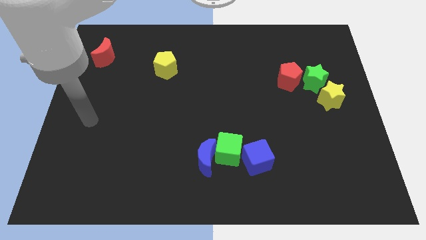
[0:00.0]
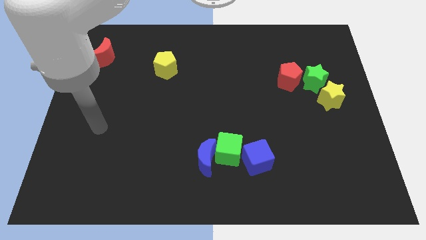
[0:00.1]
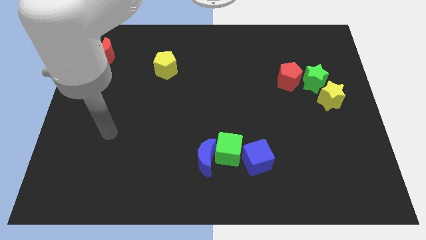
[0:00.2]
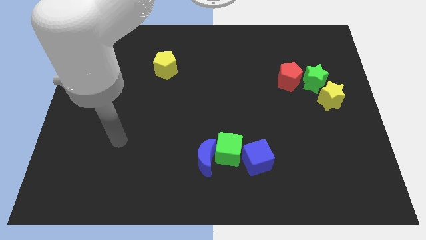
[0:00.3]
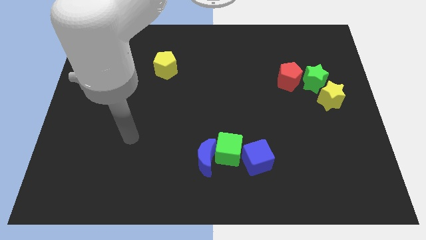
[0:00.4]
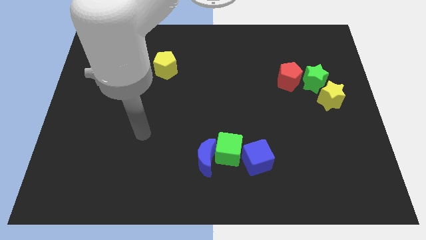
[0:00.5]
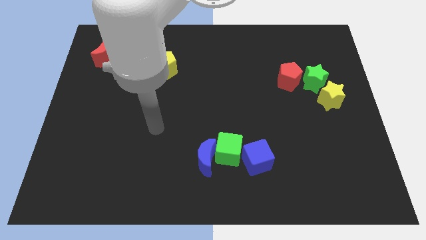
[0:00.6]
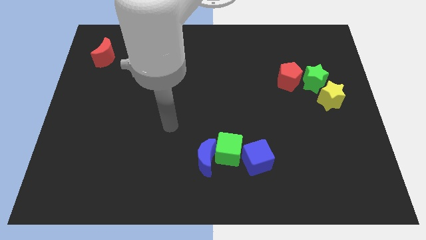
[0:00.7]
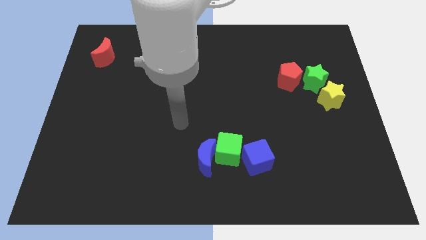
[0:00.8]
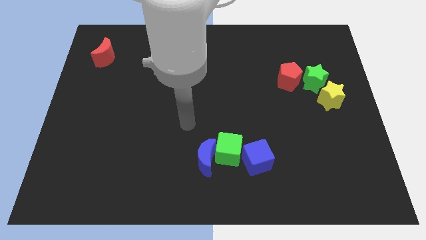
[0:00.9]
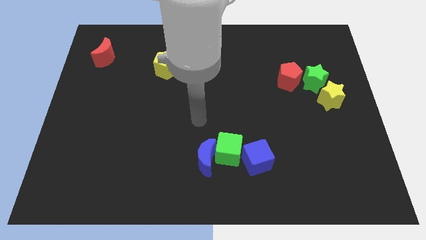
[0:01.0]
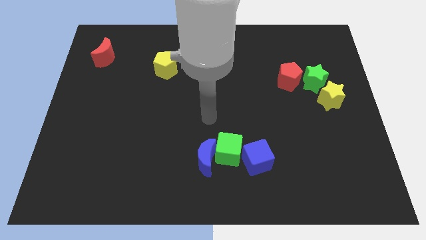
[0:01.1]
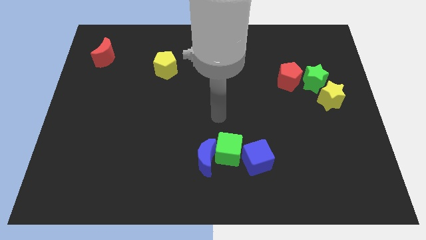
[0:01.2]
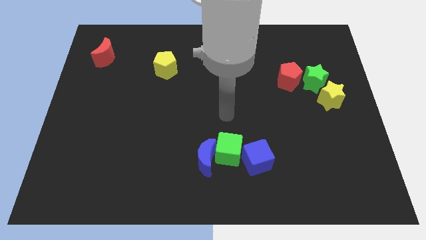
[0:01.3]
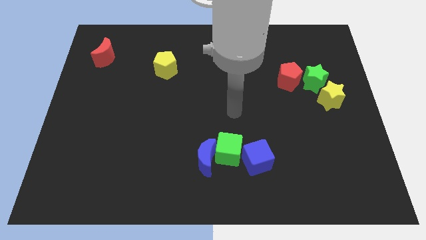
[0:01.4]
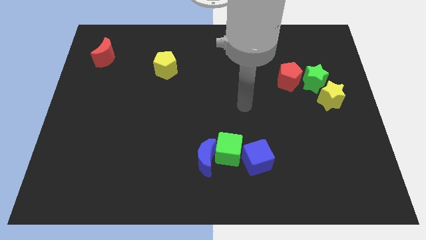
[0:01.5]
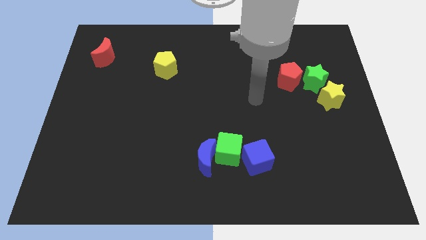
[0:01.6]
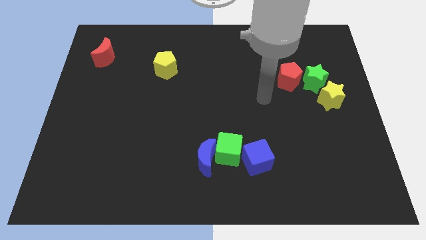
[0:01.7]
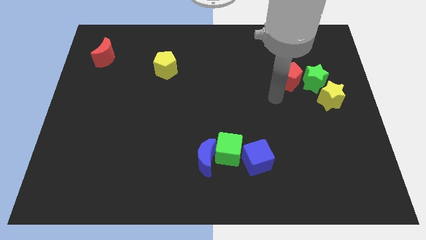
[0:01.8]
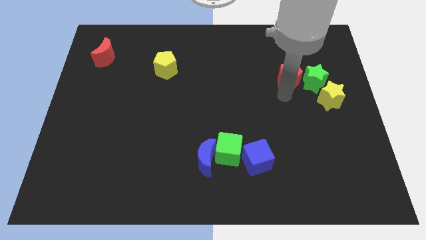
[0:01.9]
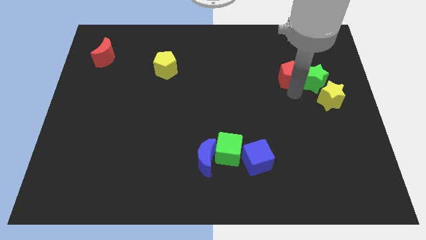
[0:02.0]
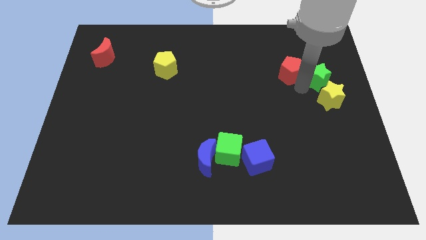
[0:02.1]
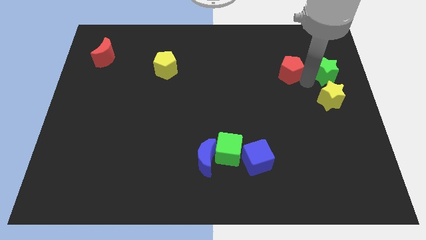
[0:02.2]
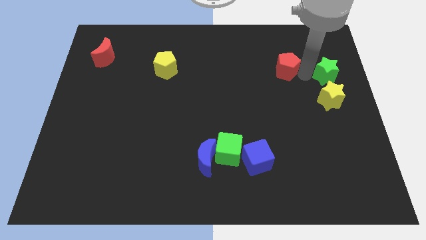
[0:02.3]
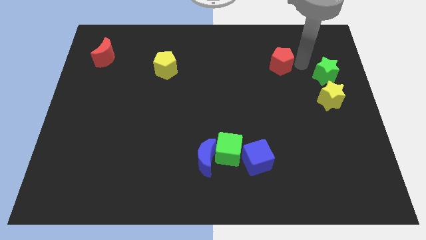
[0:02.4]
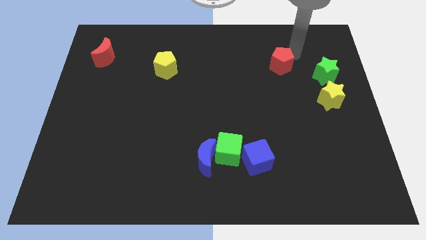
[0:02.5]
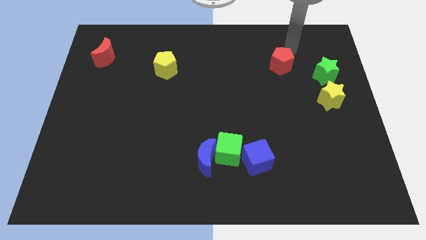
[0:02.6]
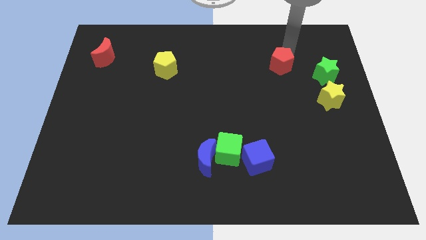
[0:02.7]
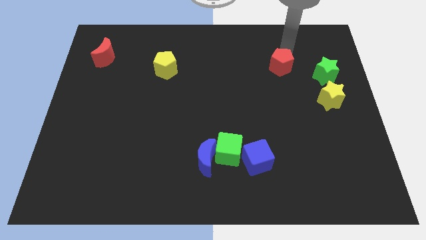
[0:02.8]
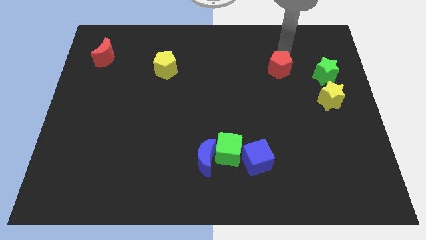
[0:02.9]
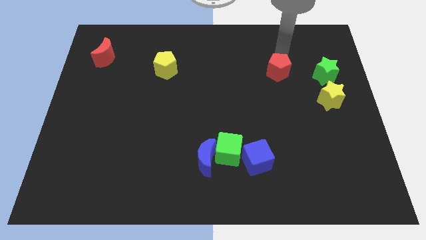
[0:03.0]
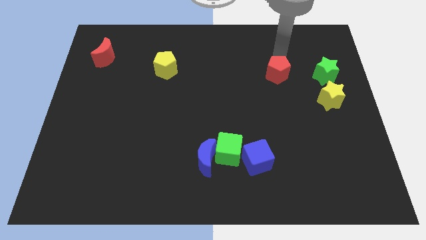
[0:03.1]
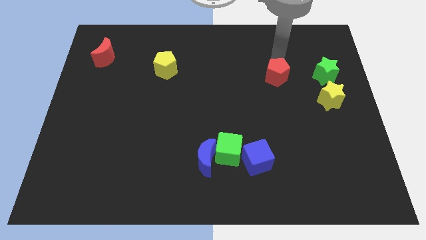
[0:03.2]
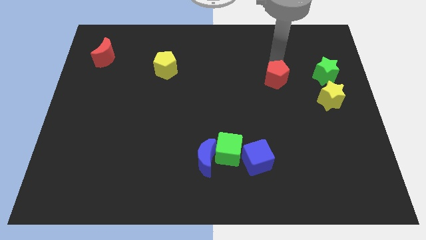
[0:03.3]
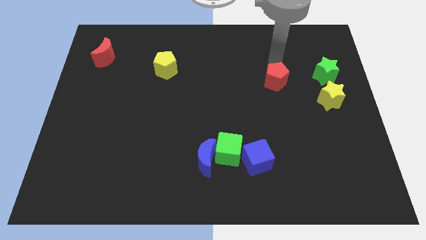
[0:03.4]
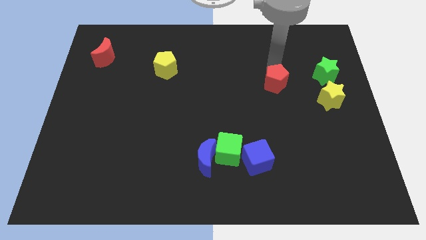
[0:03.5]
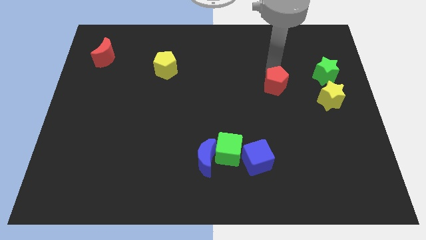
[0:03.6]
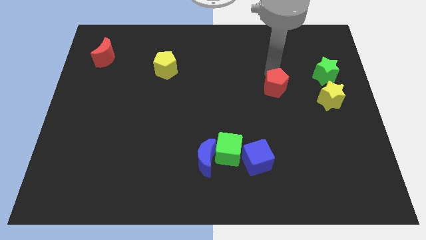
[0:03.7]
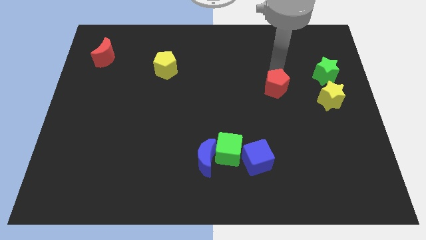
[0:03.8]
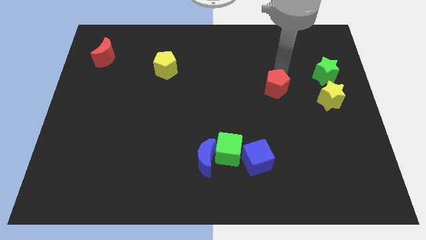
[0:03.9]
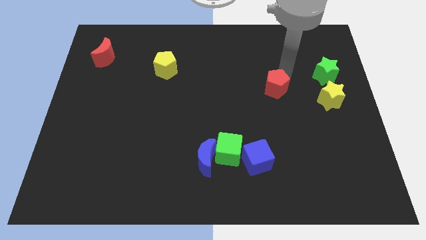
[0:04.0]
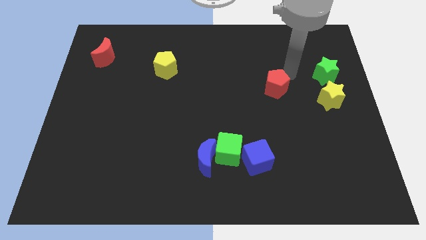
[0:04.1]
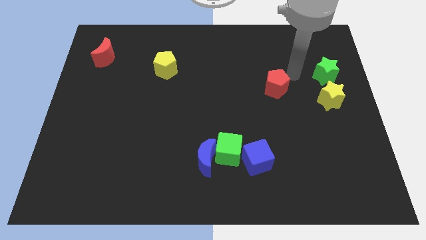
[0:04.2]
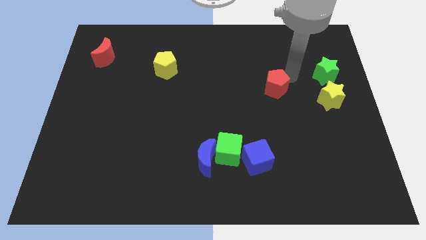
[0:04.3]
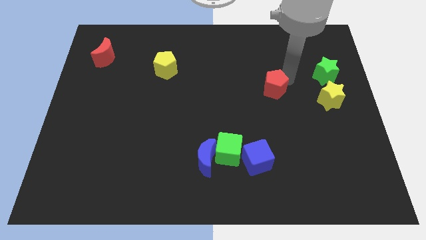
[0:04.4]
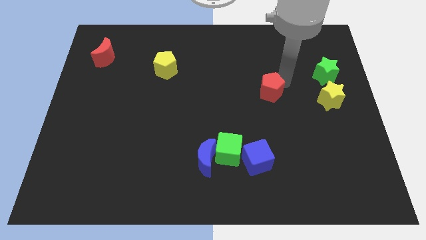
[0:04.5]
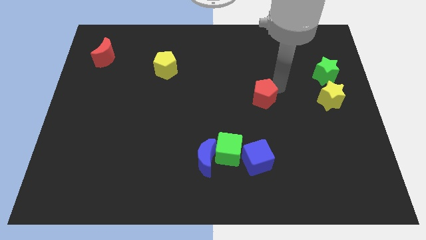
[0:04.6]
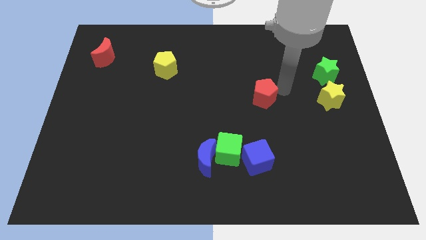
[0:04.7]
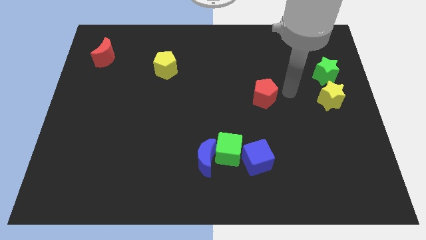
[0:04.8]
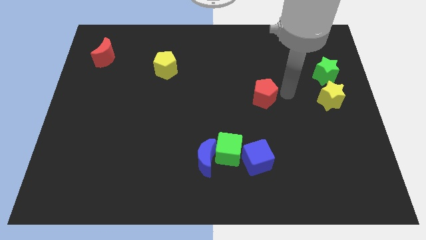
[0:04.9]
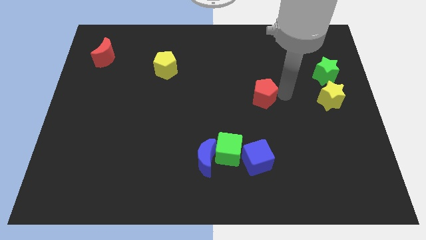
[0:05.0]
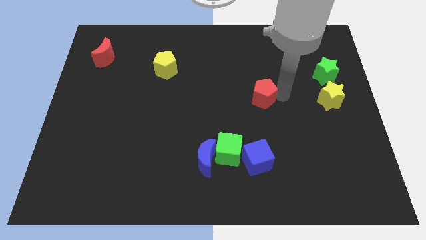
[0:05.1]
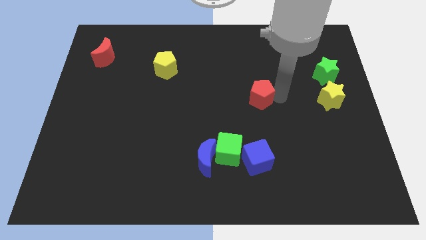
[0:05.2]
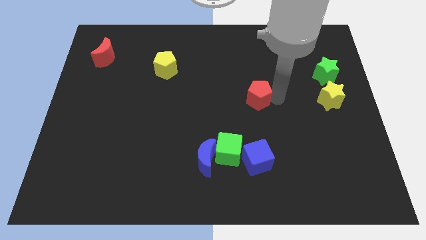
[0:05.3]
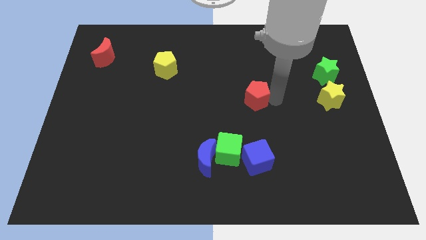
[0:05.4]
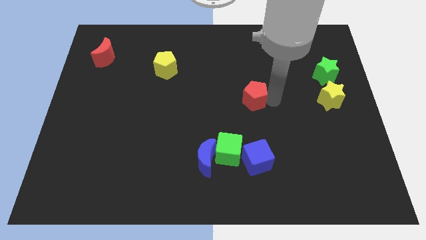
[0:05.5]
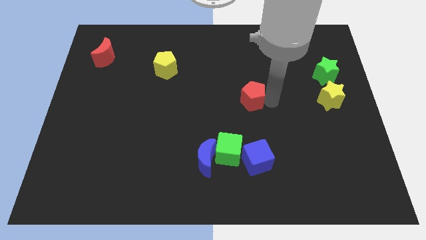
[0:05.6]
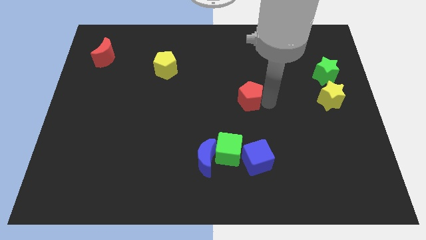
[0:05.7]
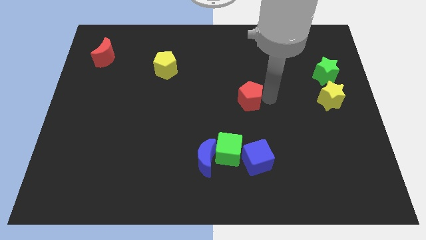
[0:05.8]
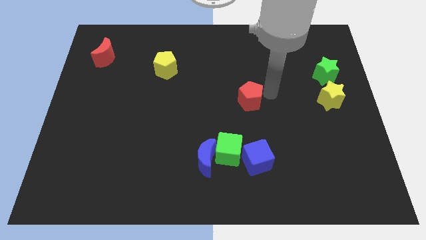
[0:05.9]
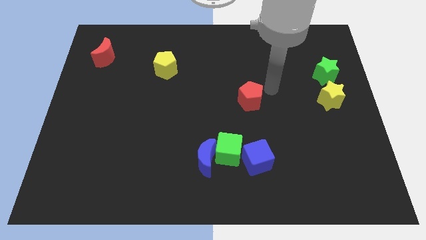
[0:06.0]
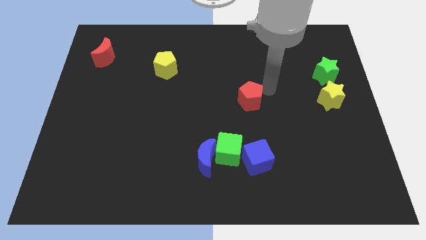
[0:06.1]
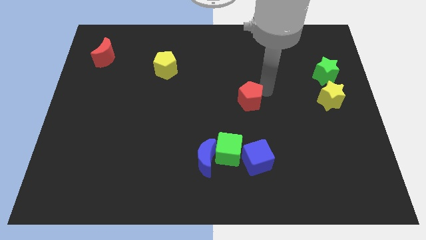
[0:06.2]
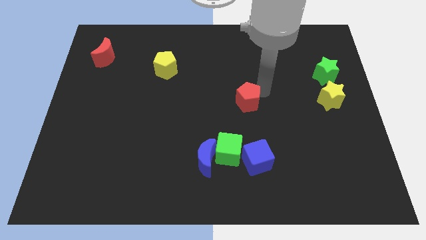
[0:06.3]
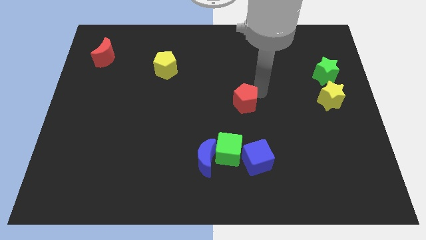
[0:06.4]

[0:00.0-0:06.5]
put the red pentagon to the top side of the green cube

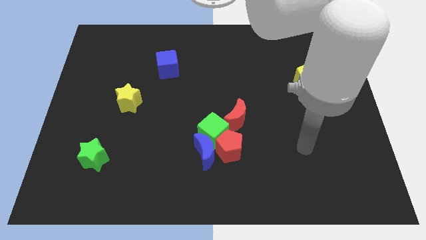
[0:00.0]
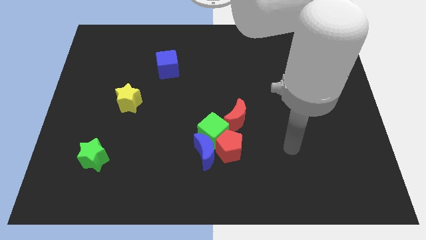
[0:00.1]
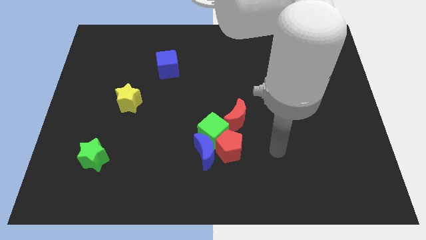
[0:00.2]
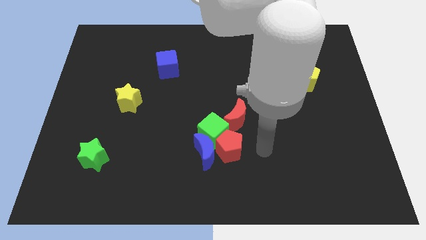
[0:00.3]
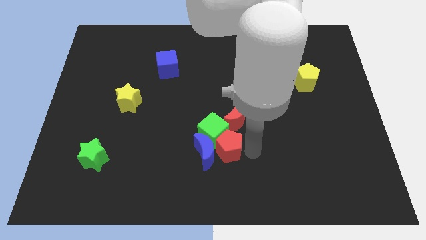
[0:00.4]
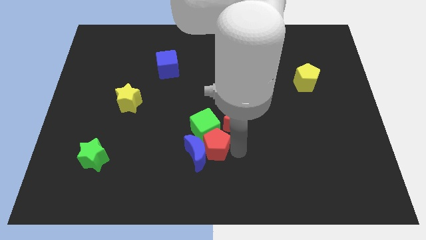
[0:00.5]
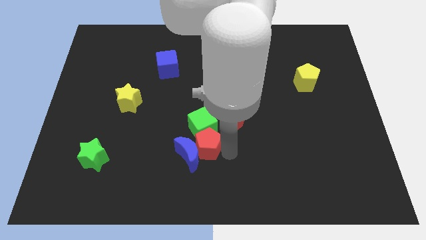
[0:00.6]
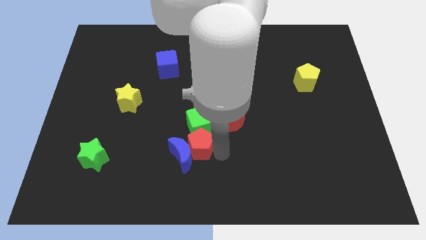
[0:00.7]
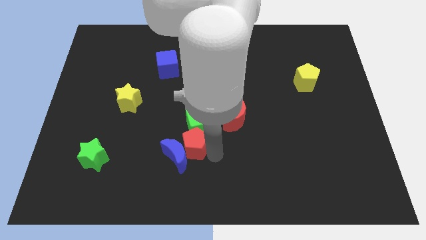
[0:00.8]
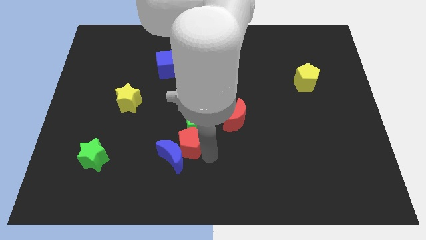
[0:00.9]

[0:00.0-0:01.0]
slide the blue moon to the right of the green star

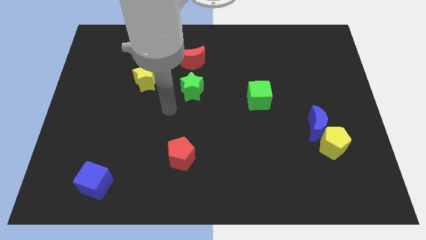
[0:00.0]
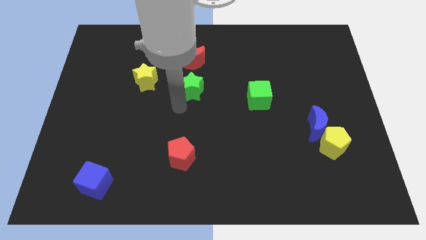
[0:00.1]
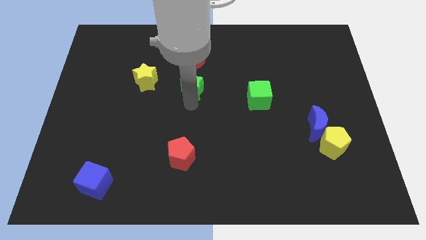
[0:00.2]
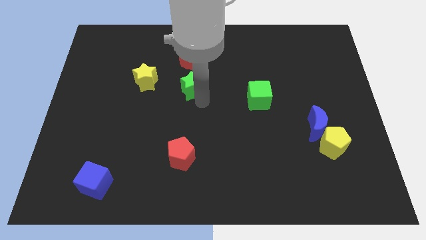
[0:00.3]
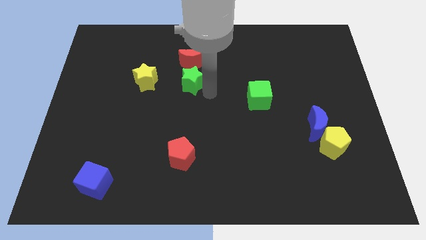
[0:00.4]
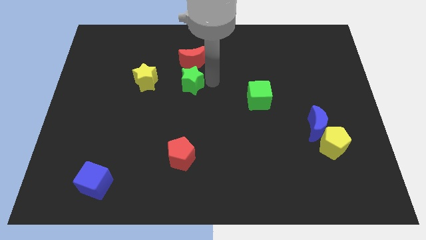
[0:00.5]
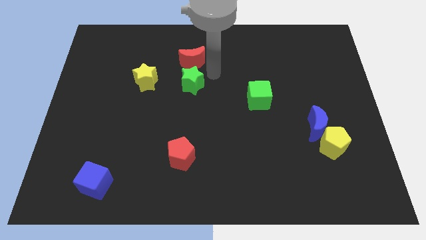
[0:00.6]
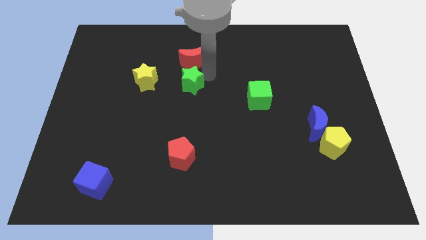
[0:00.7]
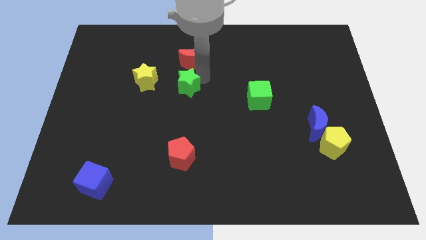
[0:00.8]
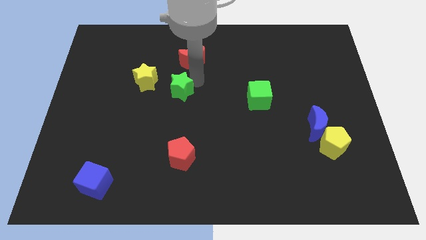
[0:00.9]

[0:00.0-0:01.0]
push the green star to the bottom right of the yellow star
